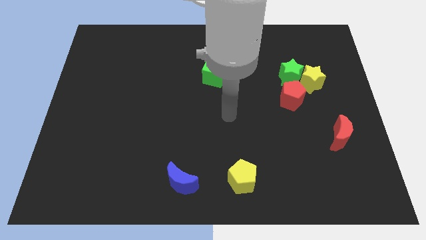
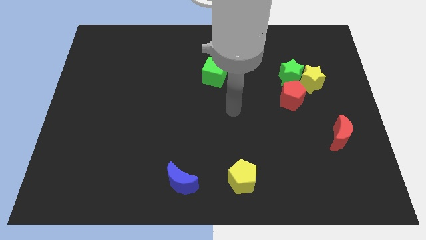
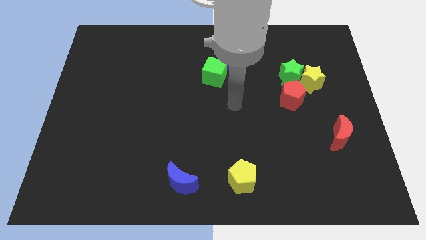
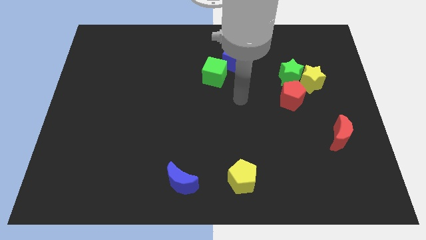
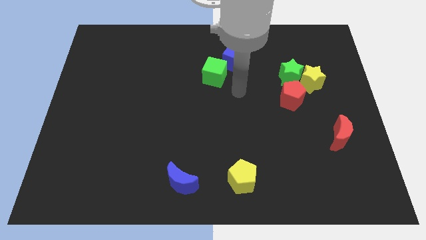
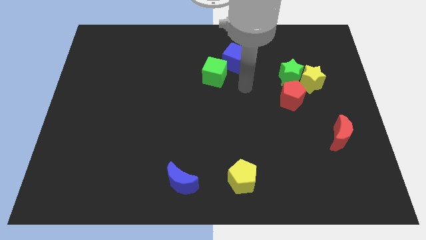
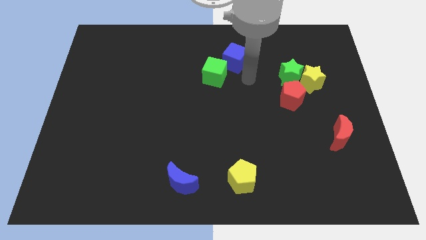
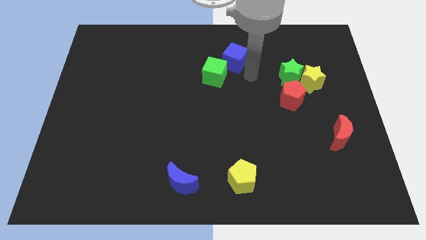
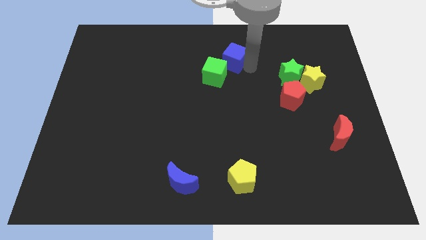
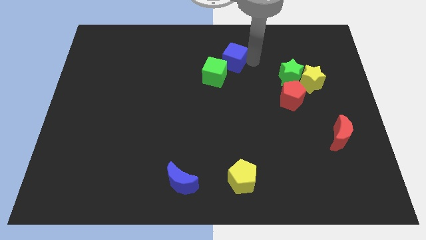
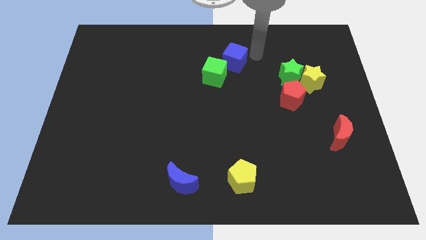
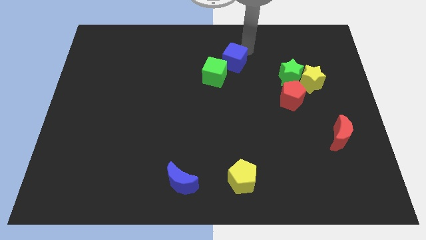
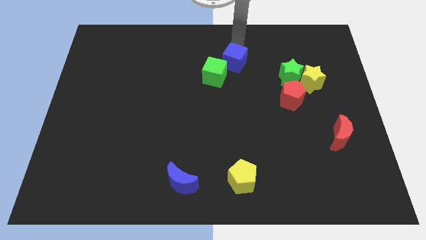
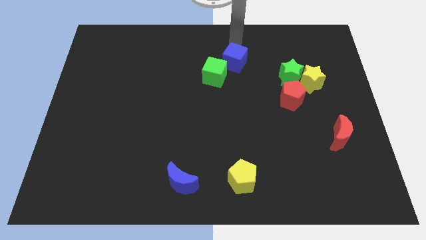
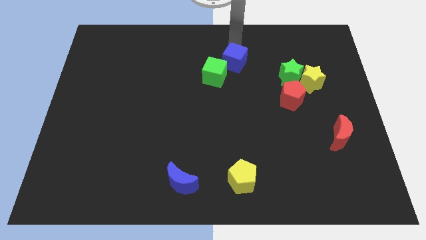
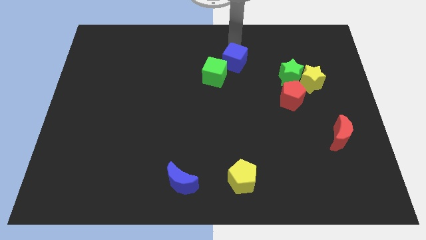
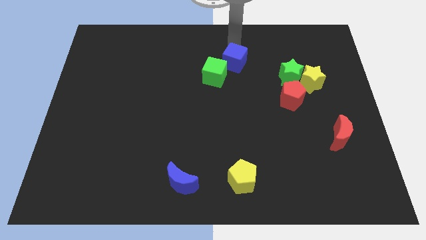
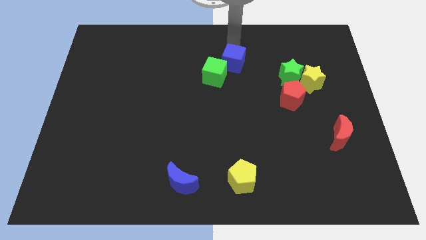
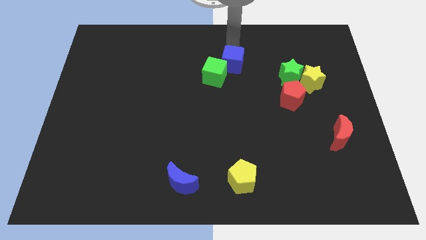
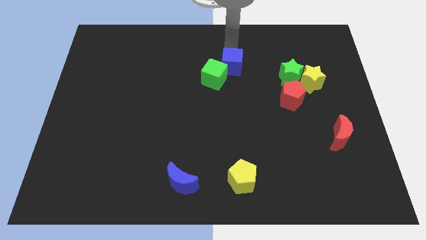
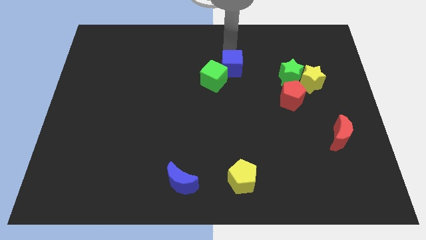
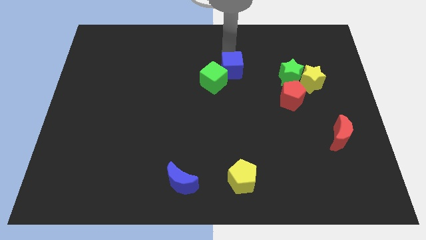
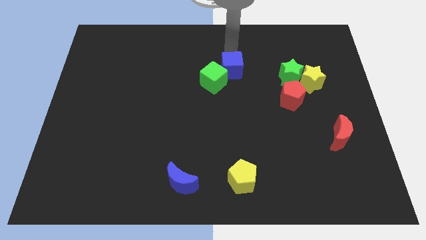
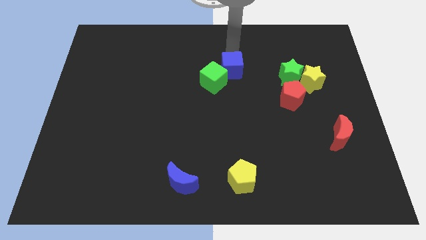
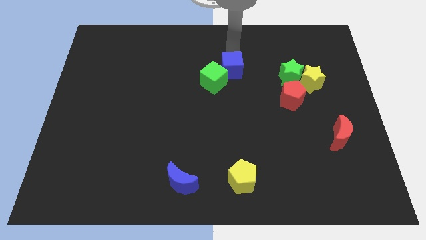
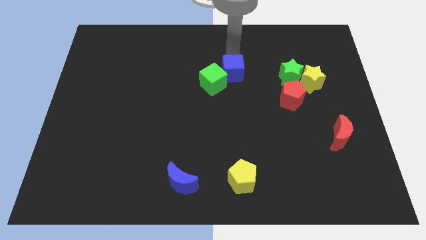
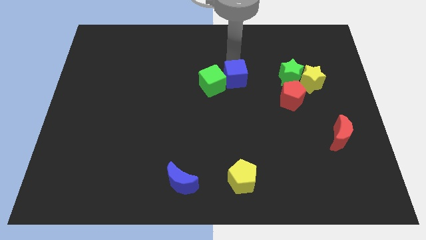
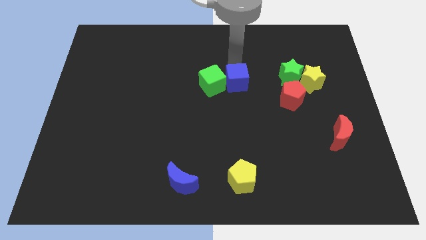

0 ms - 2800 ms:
slide the blue cube downwards somewhat

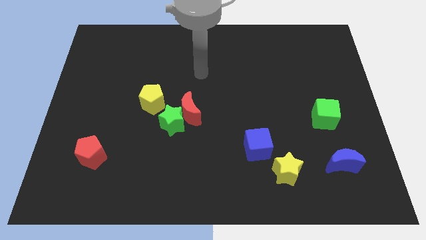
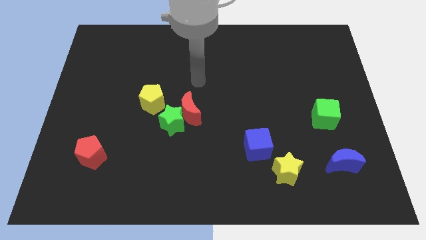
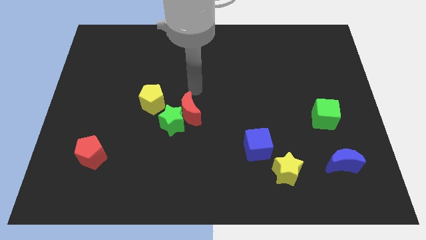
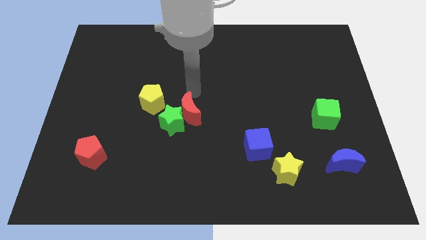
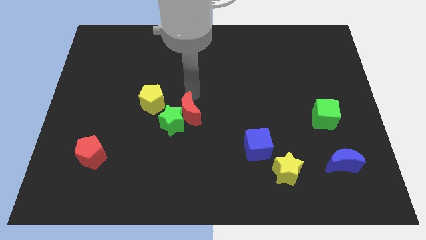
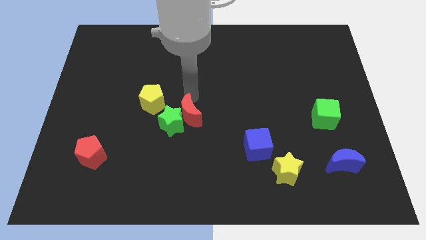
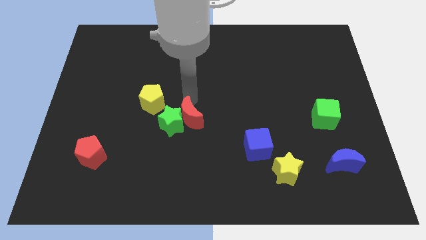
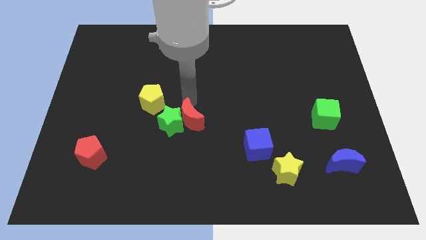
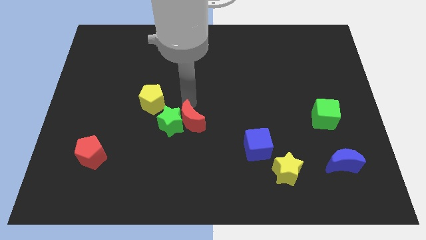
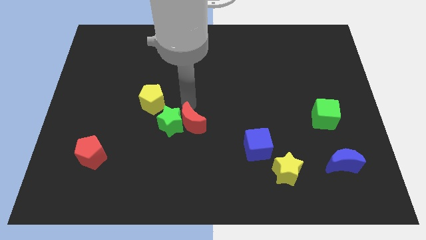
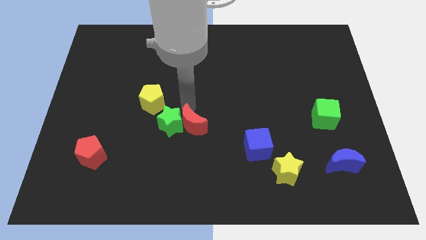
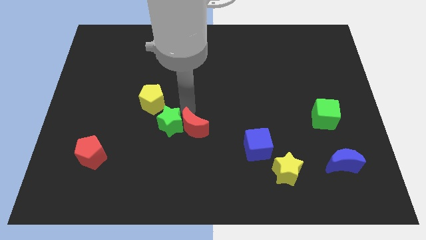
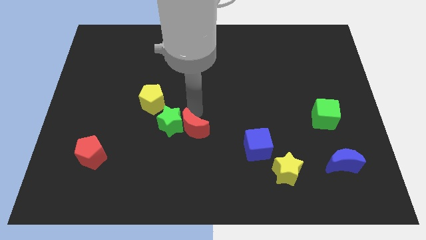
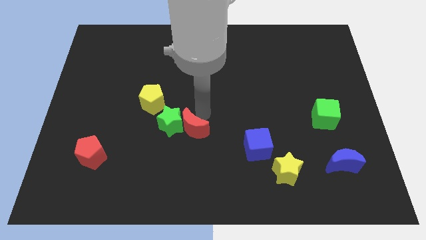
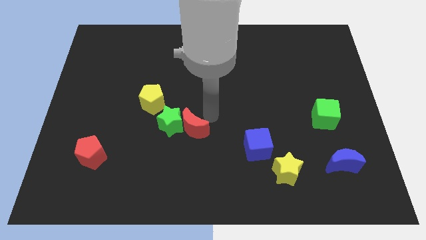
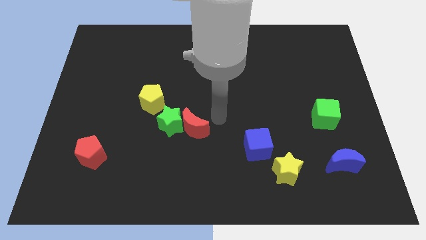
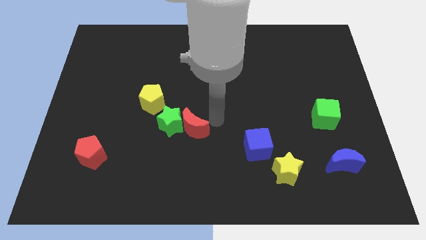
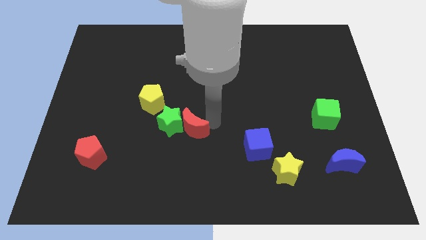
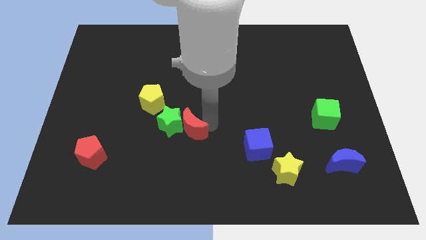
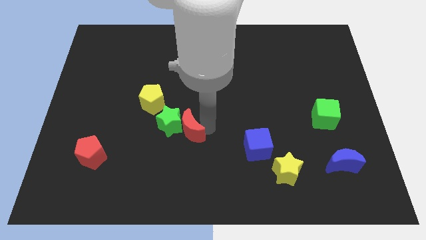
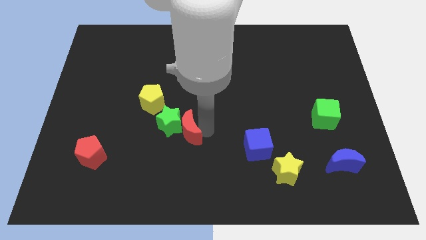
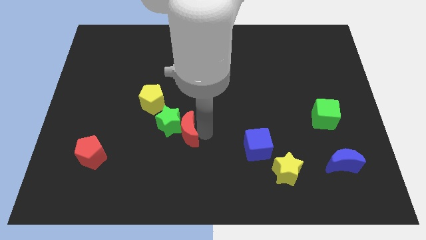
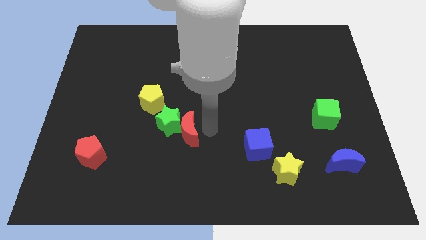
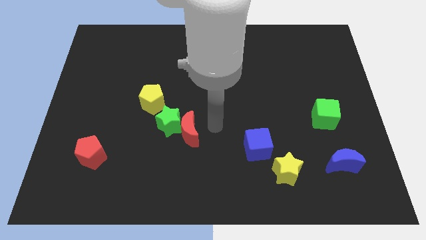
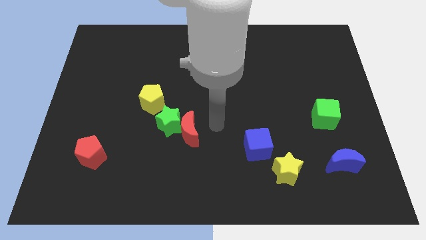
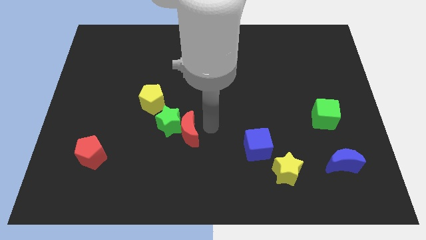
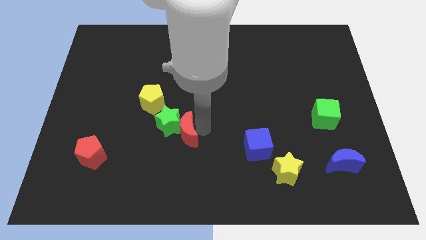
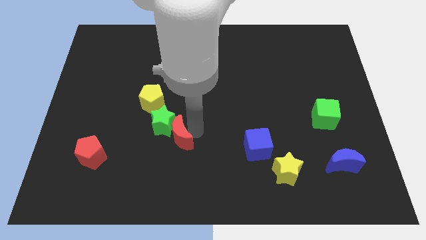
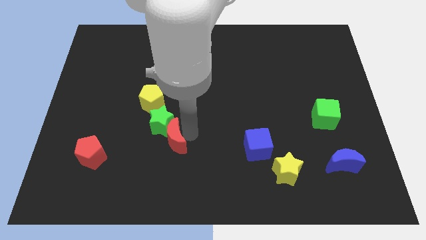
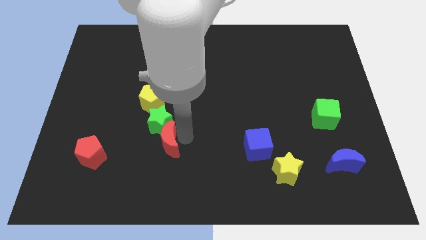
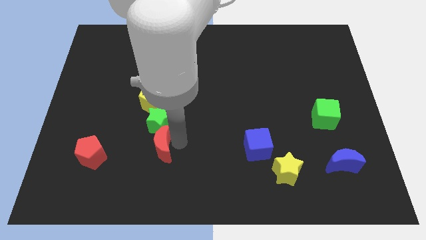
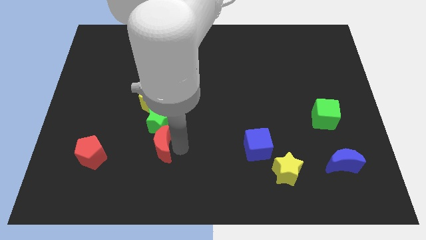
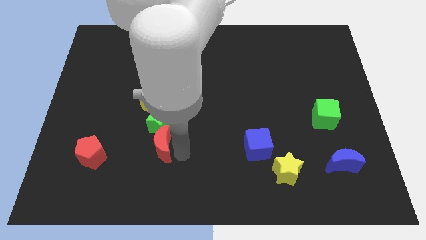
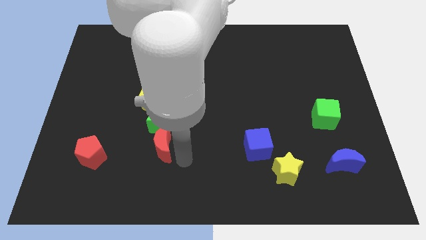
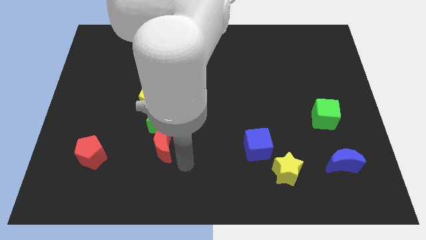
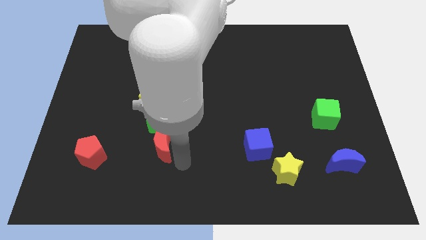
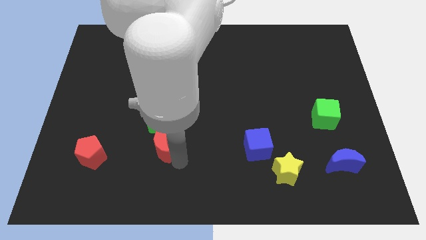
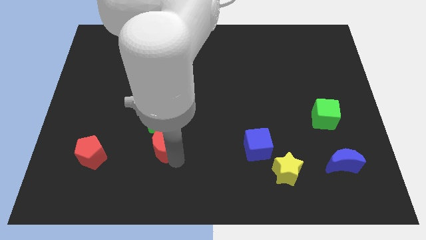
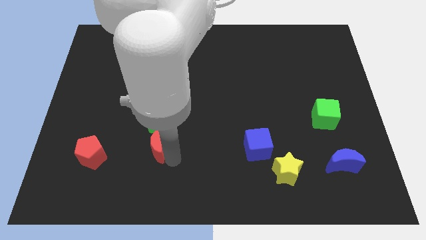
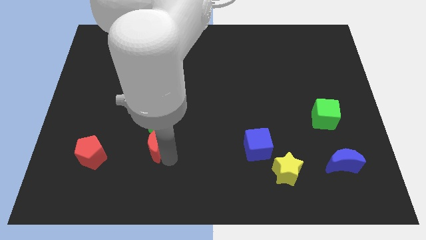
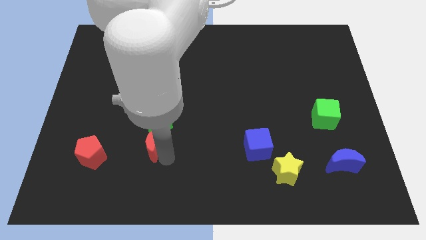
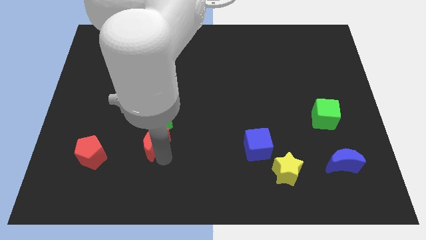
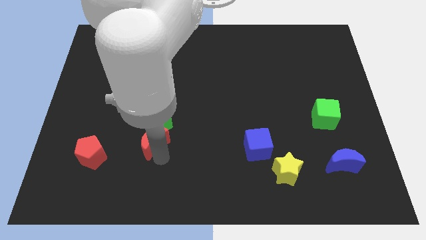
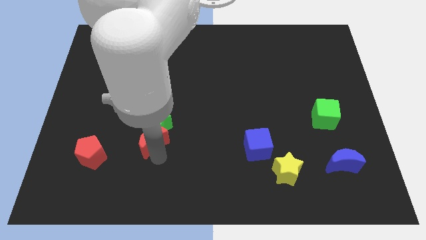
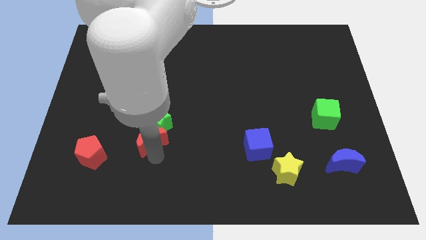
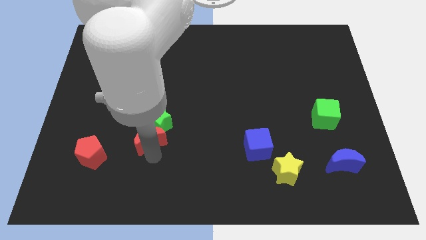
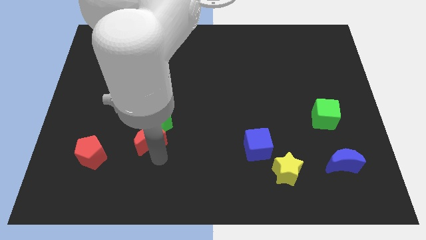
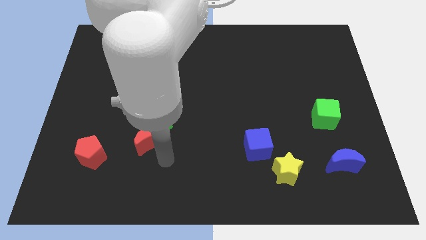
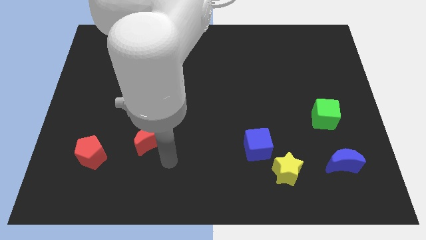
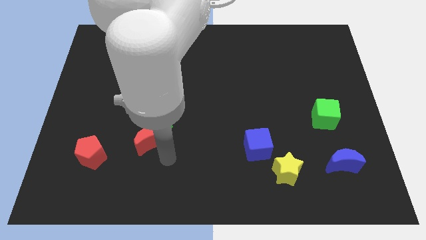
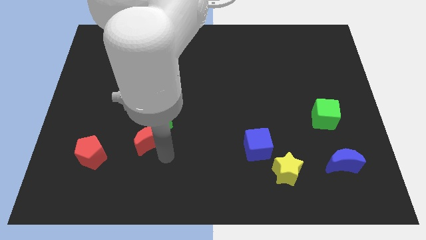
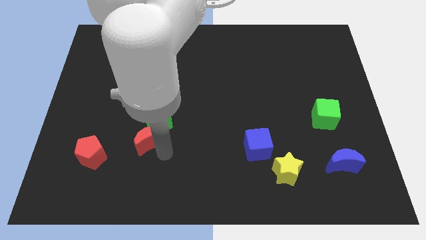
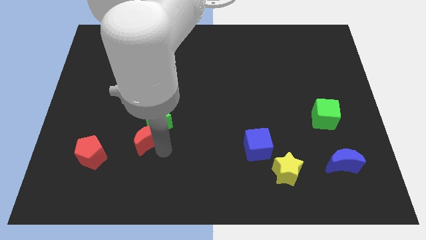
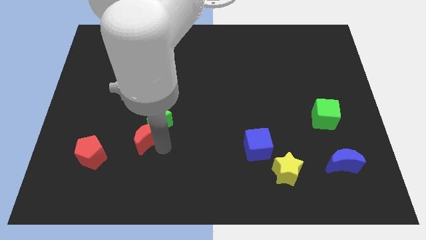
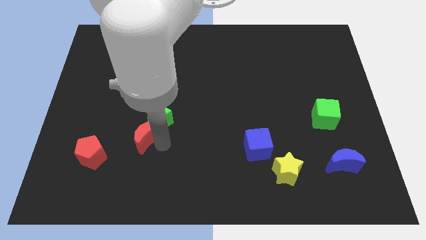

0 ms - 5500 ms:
slightly push the red moon to the left
